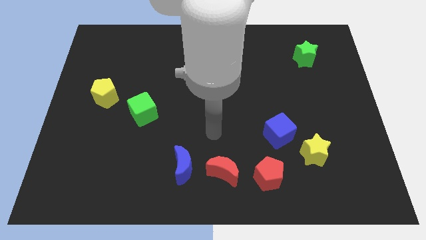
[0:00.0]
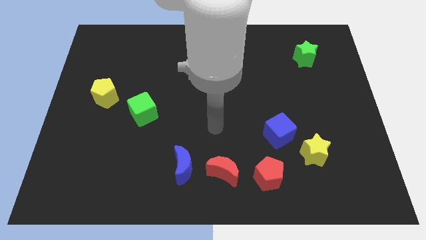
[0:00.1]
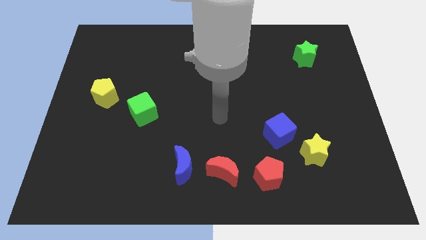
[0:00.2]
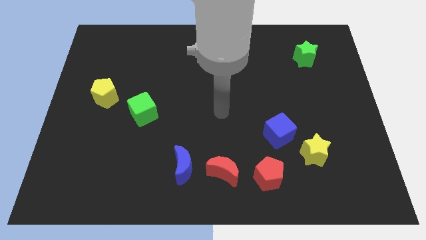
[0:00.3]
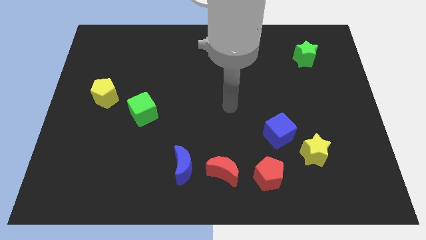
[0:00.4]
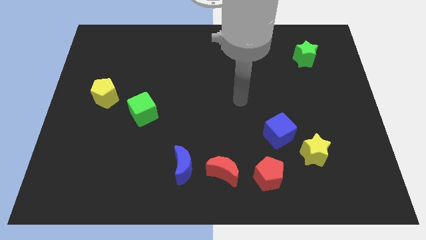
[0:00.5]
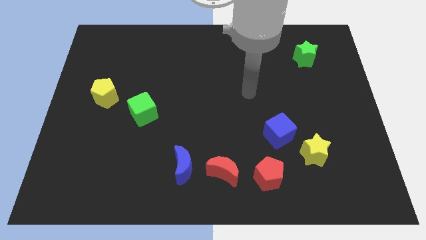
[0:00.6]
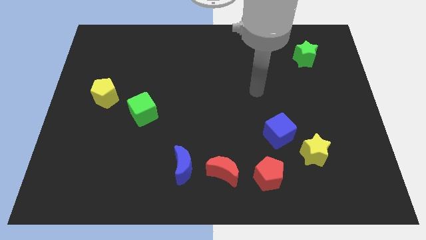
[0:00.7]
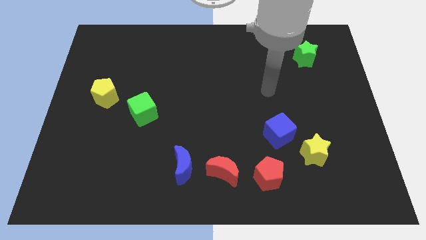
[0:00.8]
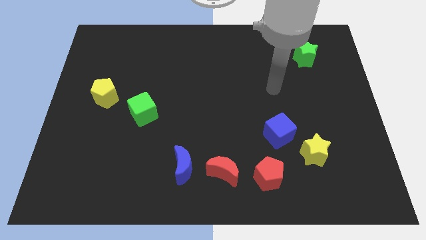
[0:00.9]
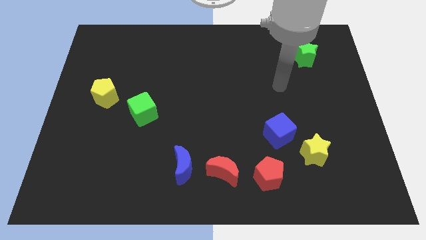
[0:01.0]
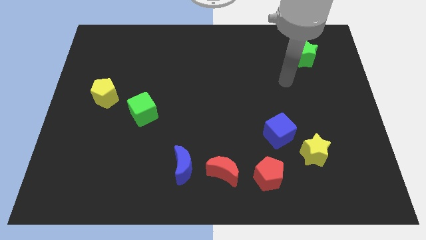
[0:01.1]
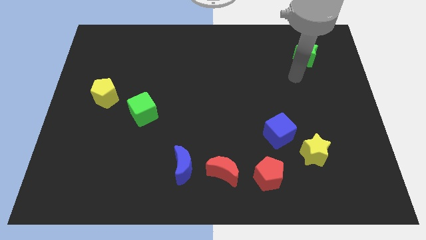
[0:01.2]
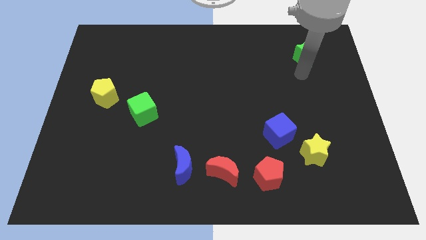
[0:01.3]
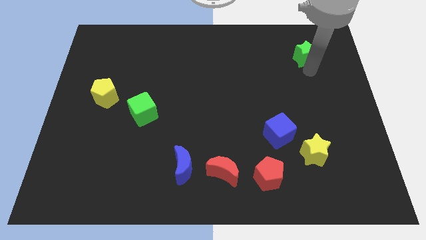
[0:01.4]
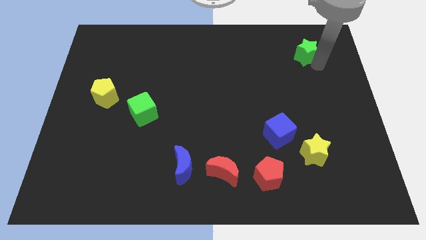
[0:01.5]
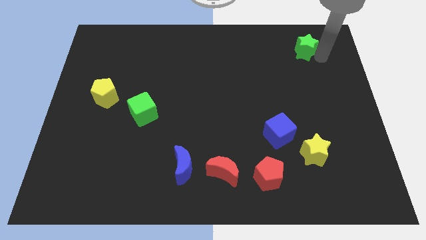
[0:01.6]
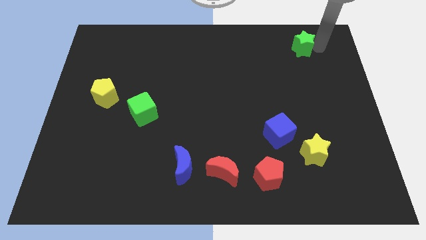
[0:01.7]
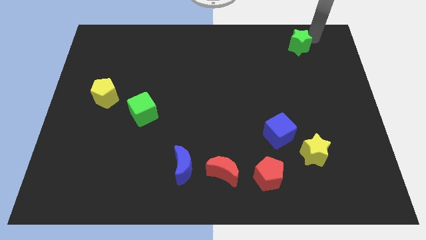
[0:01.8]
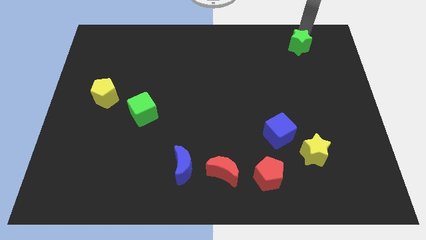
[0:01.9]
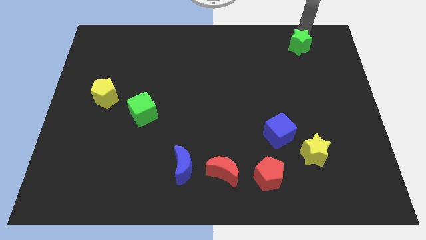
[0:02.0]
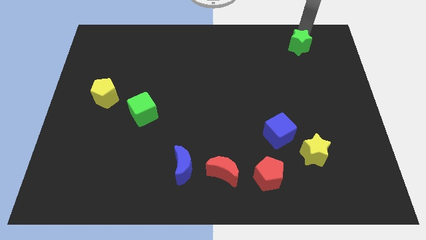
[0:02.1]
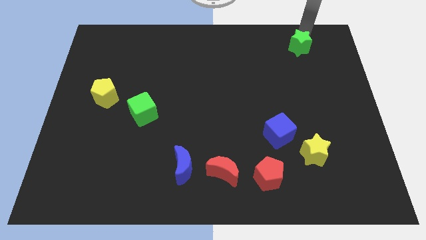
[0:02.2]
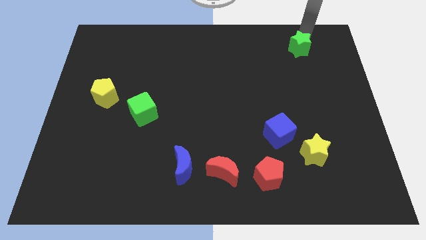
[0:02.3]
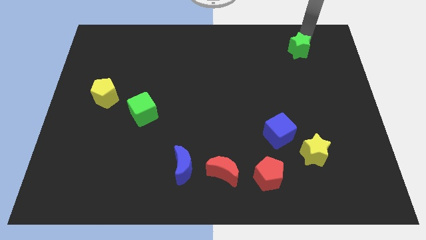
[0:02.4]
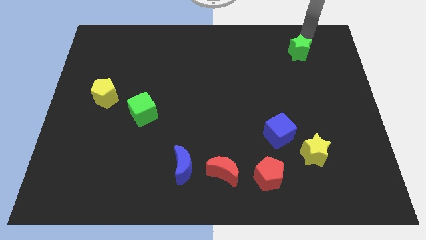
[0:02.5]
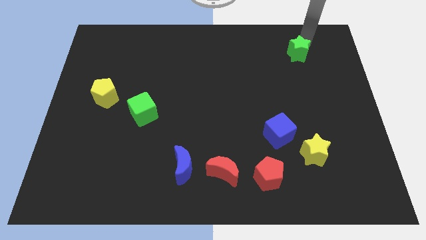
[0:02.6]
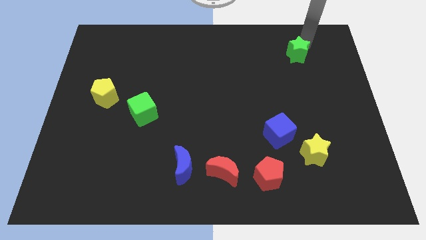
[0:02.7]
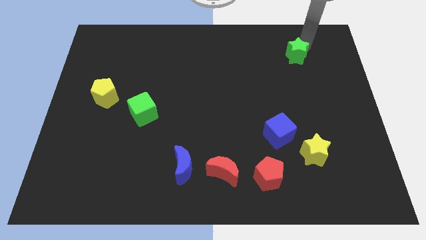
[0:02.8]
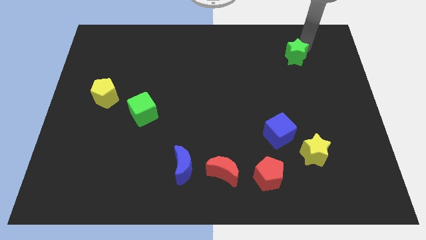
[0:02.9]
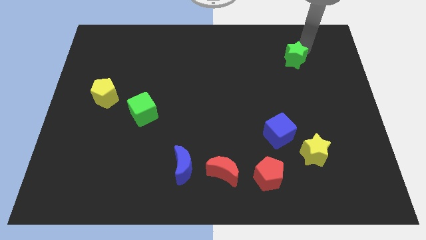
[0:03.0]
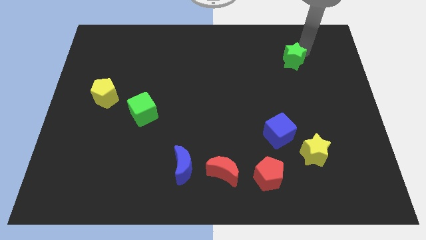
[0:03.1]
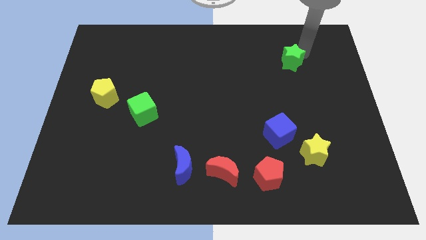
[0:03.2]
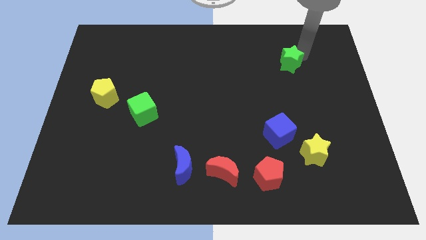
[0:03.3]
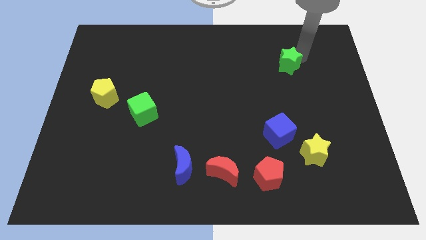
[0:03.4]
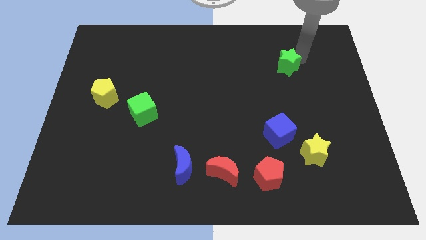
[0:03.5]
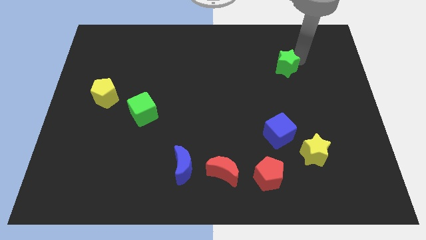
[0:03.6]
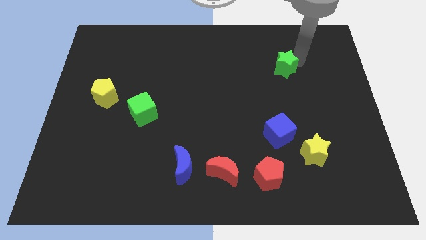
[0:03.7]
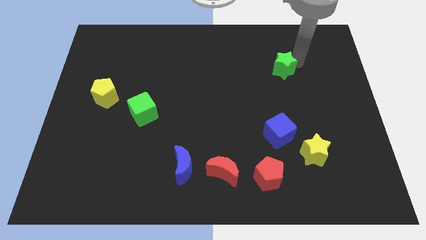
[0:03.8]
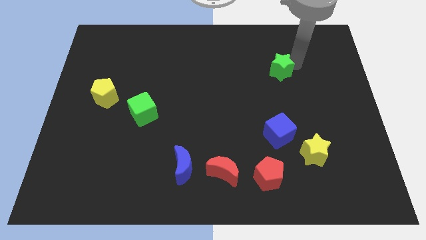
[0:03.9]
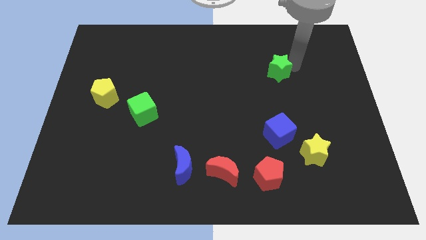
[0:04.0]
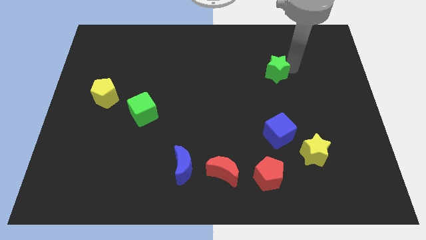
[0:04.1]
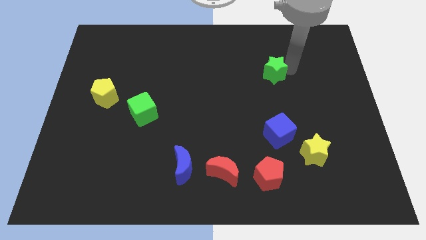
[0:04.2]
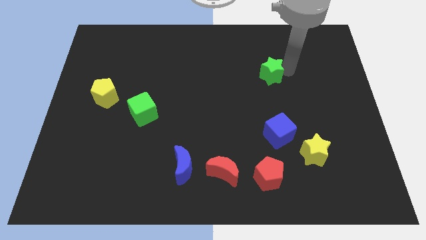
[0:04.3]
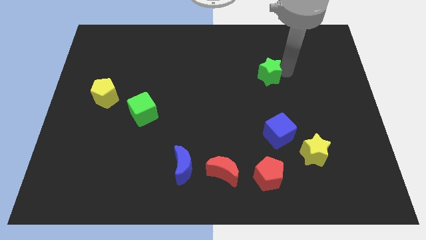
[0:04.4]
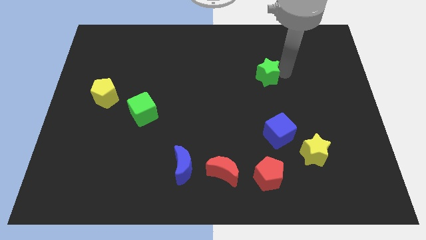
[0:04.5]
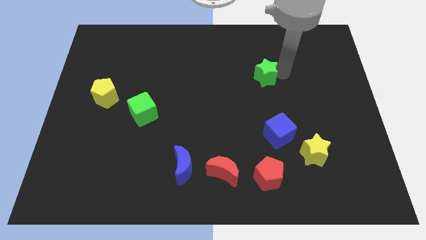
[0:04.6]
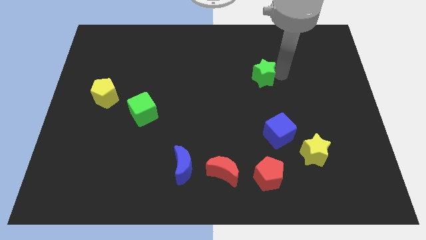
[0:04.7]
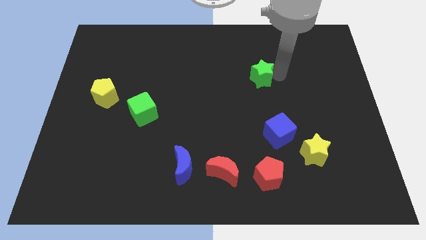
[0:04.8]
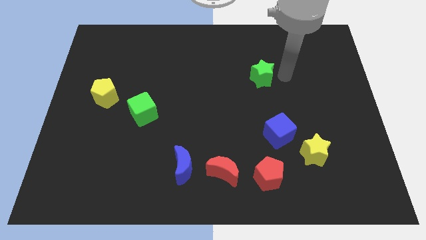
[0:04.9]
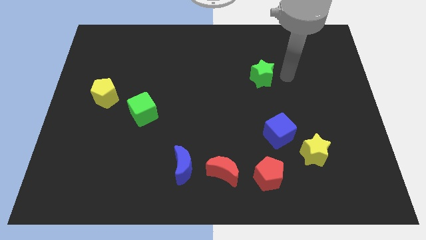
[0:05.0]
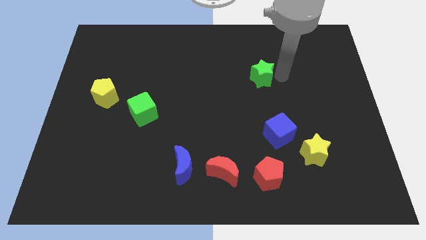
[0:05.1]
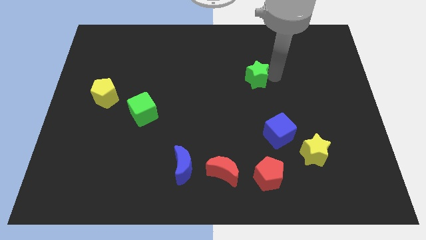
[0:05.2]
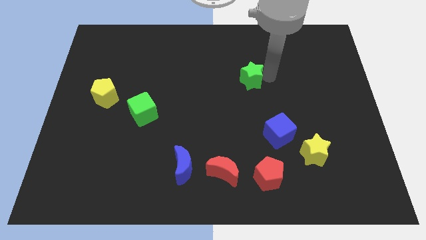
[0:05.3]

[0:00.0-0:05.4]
put the green star to the center

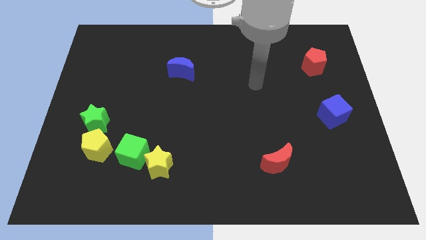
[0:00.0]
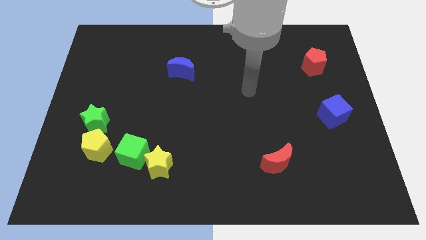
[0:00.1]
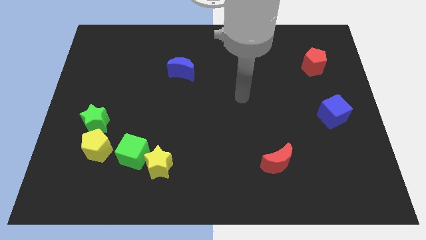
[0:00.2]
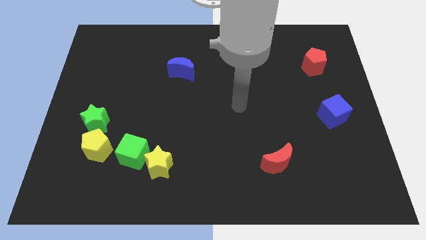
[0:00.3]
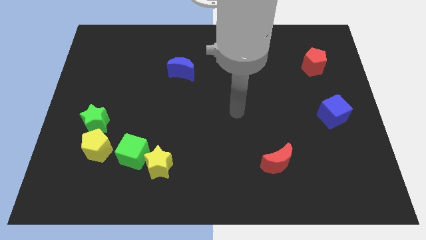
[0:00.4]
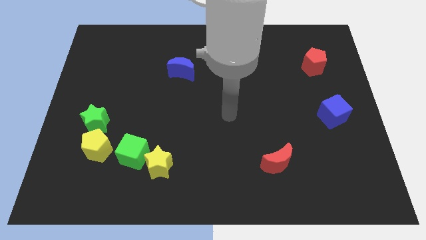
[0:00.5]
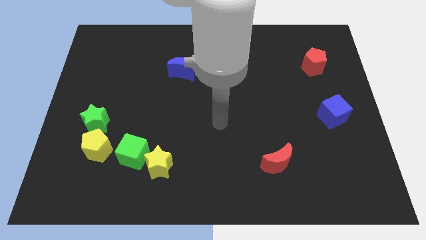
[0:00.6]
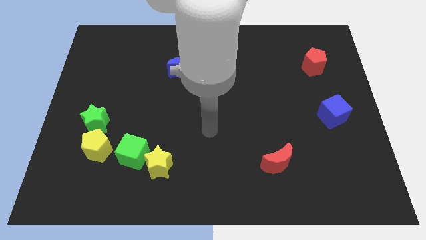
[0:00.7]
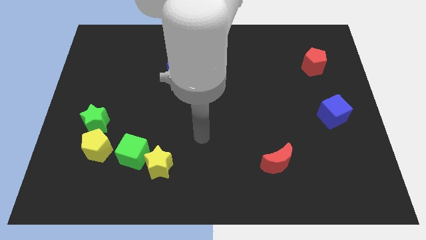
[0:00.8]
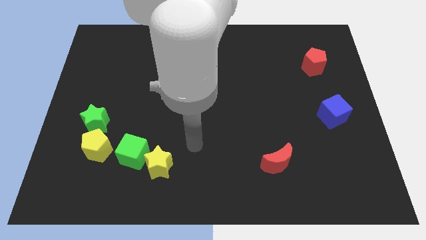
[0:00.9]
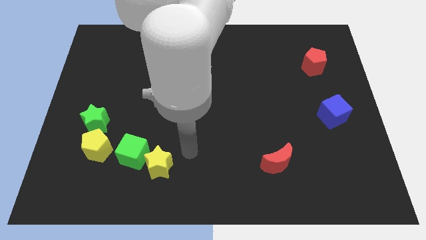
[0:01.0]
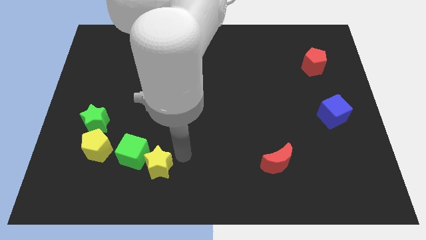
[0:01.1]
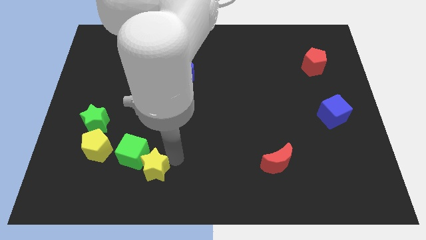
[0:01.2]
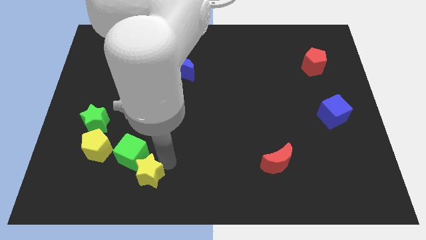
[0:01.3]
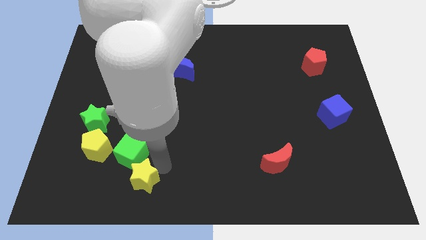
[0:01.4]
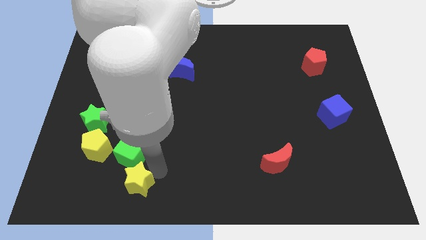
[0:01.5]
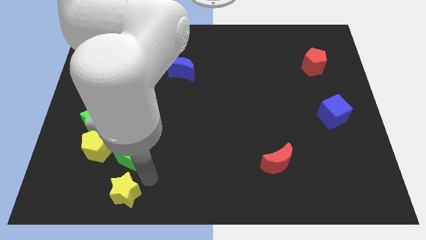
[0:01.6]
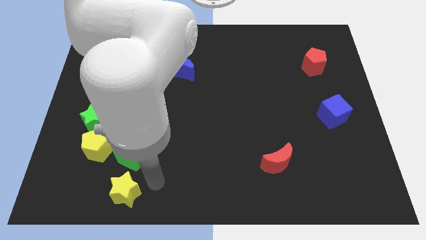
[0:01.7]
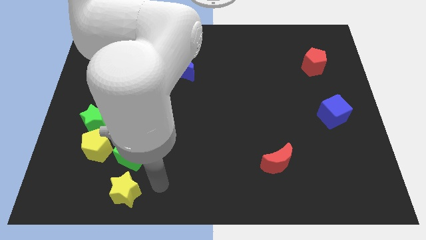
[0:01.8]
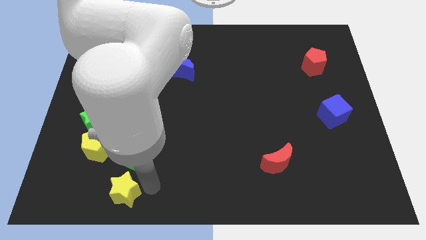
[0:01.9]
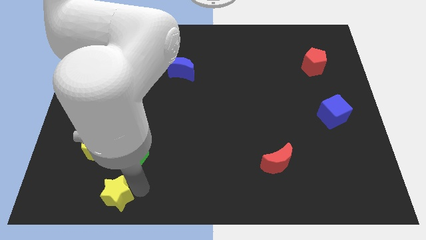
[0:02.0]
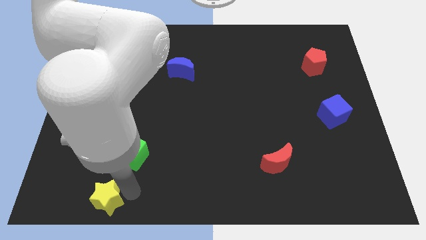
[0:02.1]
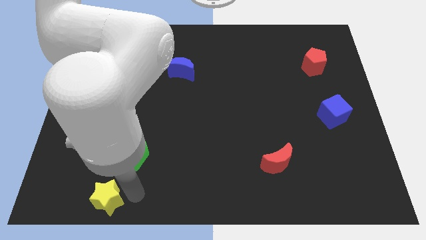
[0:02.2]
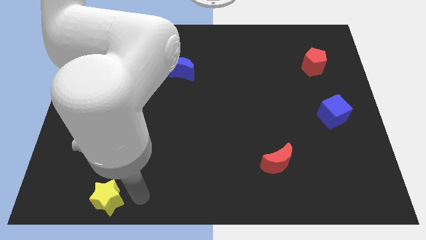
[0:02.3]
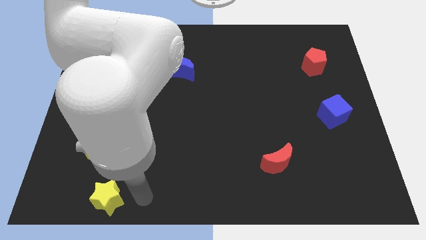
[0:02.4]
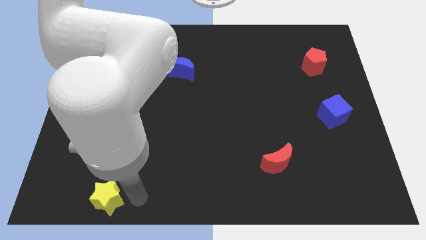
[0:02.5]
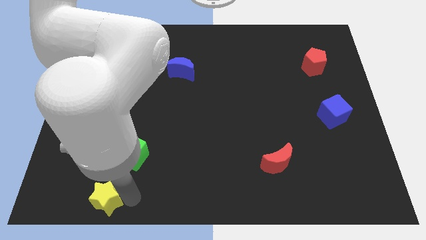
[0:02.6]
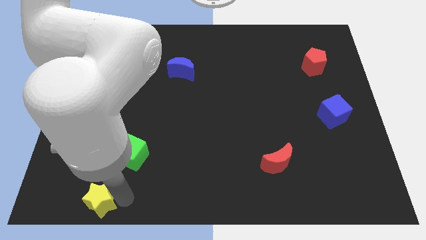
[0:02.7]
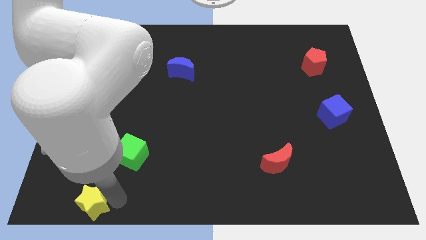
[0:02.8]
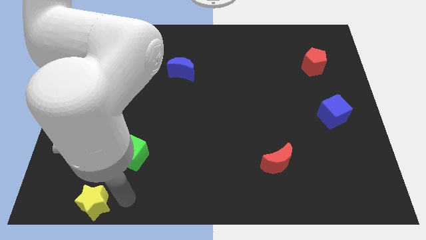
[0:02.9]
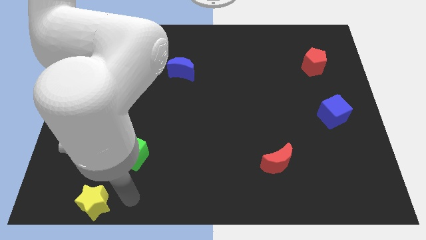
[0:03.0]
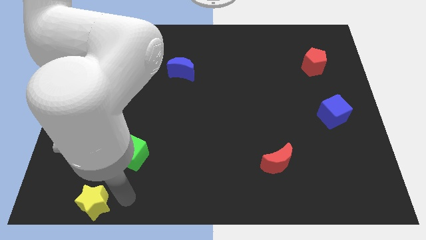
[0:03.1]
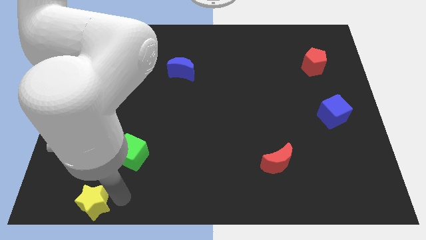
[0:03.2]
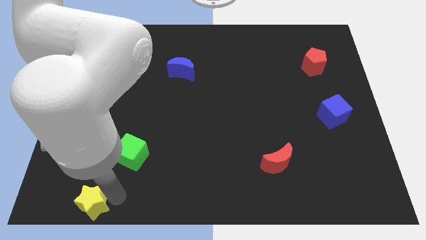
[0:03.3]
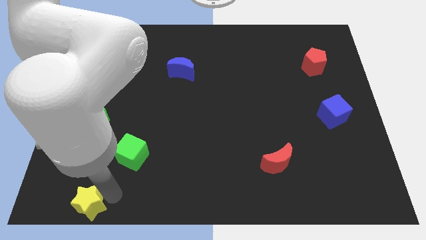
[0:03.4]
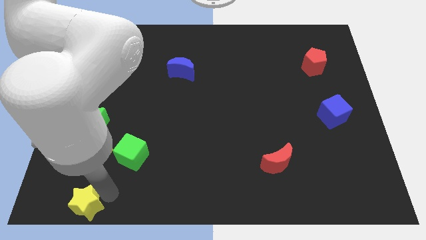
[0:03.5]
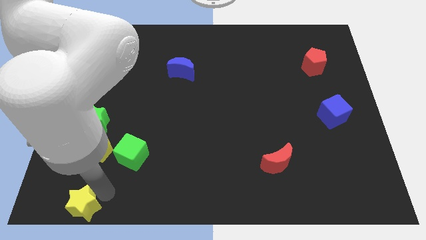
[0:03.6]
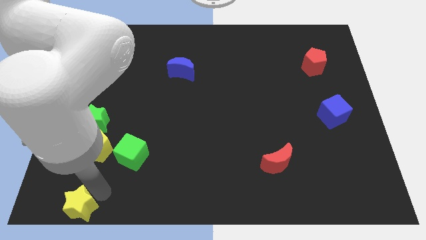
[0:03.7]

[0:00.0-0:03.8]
slide the yellow star to the bottom left
